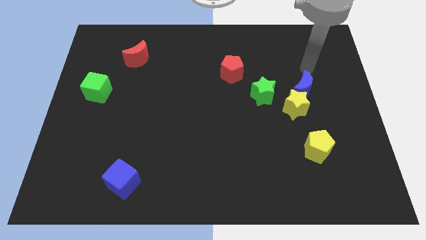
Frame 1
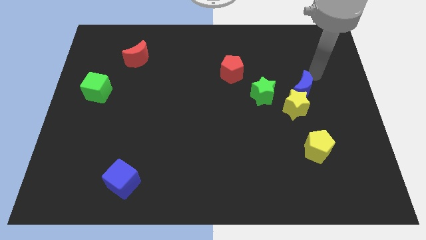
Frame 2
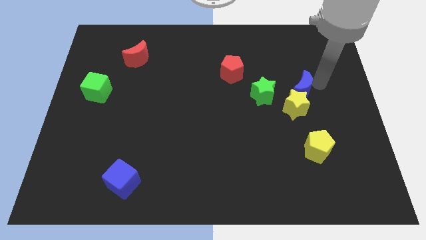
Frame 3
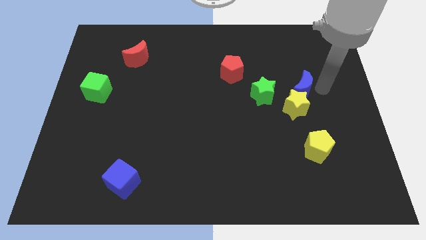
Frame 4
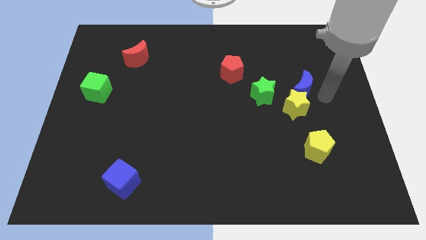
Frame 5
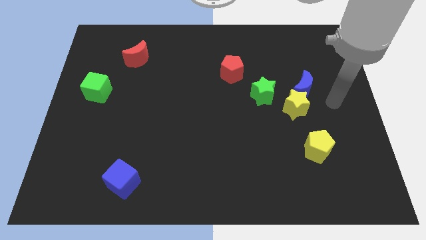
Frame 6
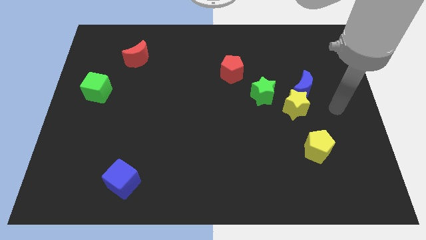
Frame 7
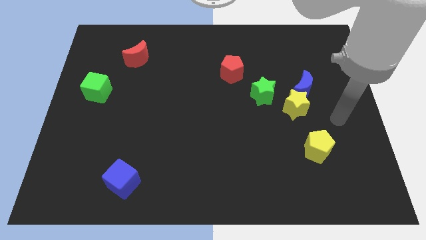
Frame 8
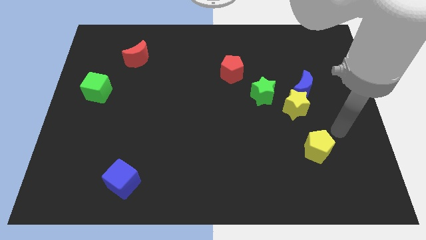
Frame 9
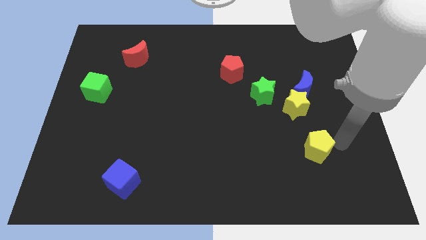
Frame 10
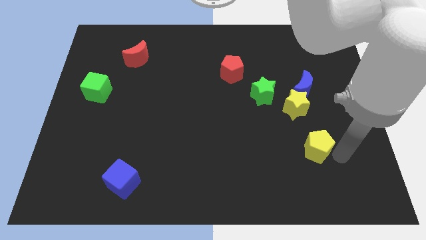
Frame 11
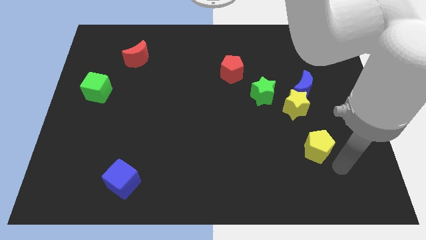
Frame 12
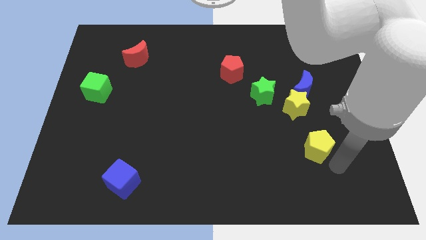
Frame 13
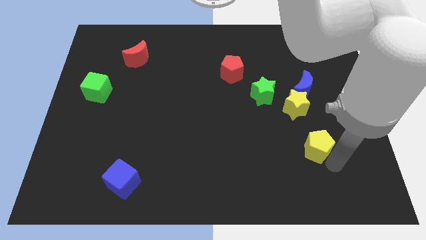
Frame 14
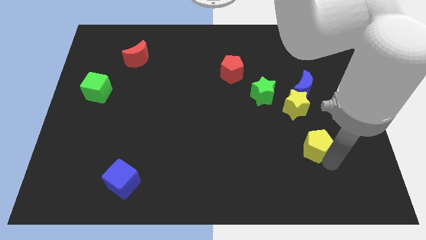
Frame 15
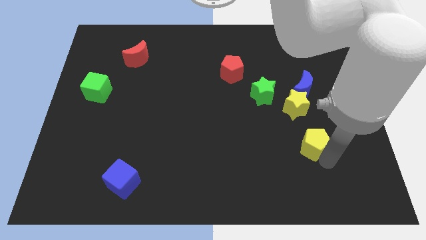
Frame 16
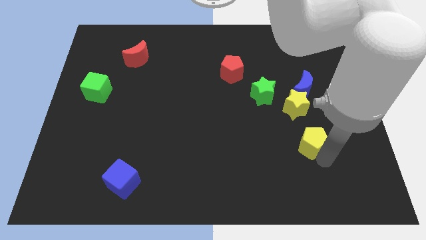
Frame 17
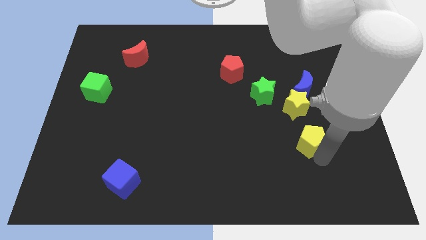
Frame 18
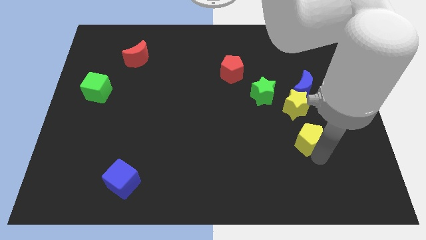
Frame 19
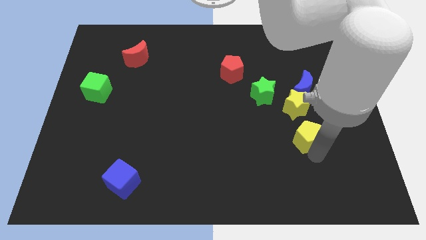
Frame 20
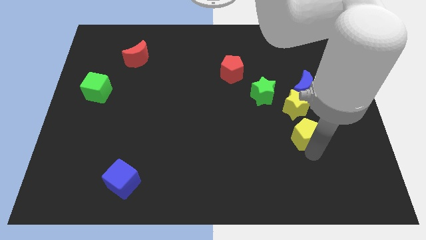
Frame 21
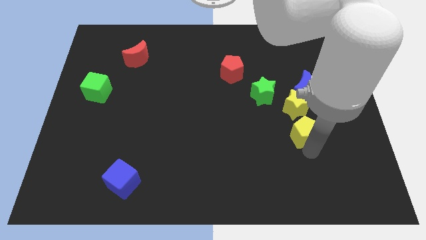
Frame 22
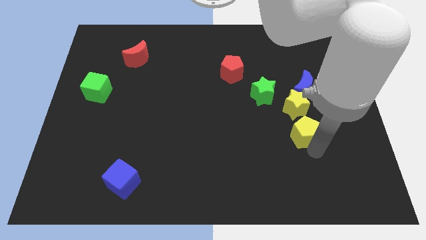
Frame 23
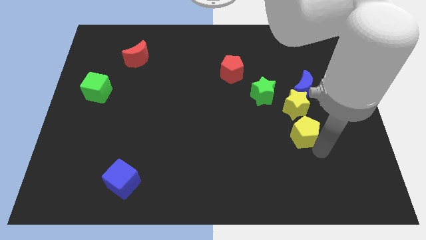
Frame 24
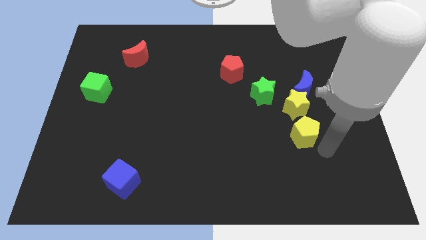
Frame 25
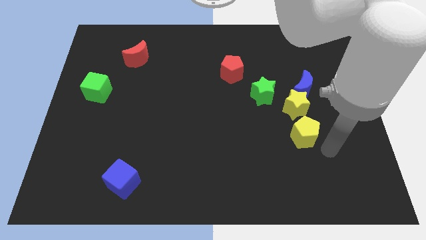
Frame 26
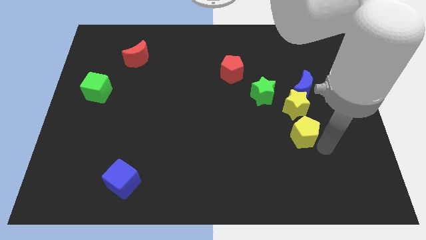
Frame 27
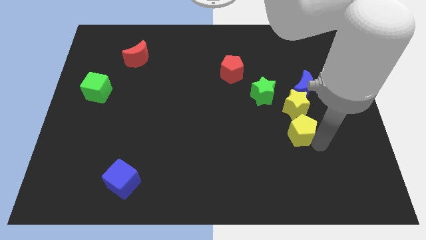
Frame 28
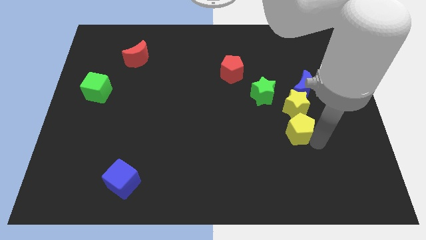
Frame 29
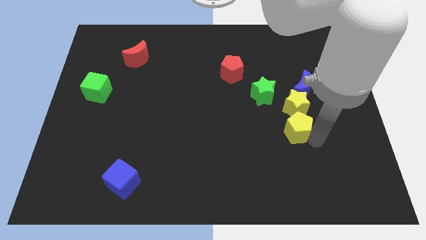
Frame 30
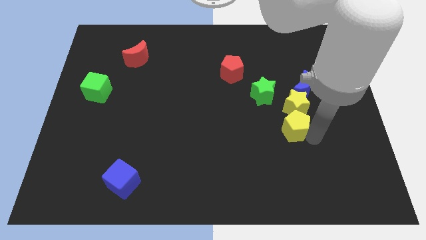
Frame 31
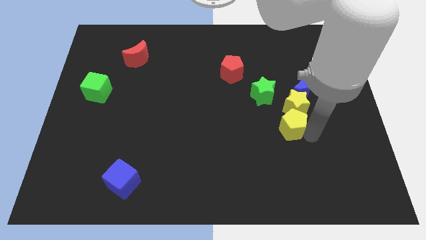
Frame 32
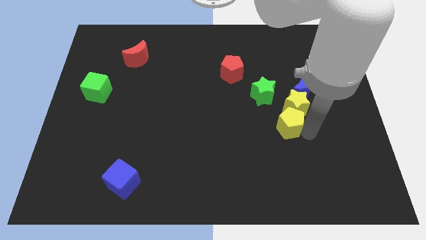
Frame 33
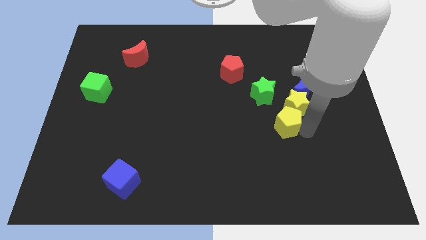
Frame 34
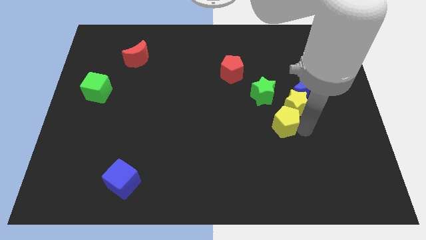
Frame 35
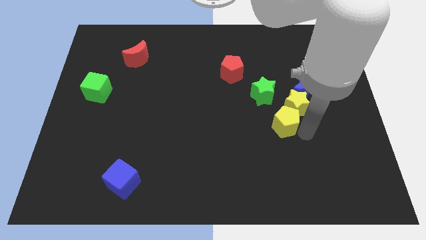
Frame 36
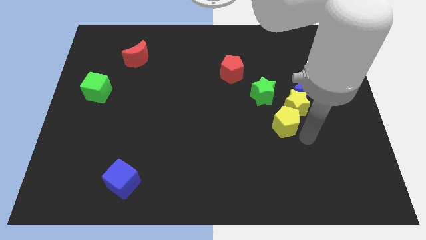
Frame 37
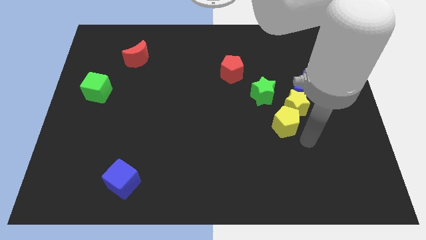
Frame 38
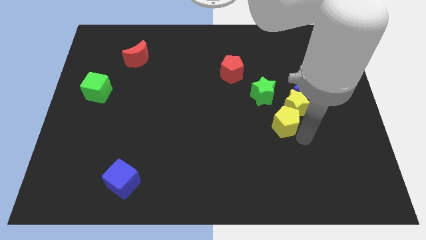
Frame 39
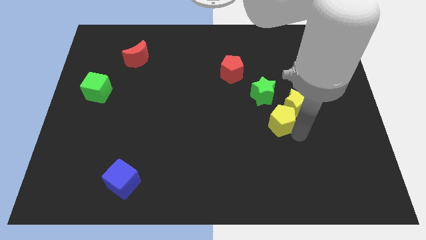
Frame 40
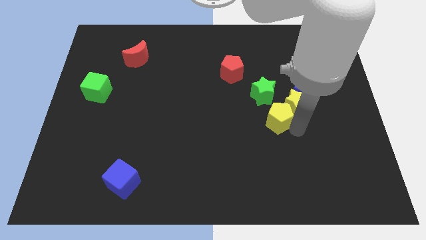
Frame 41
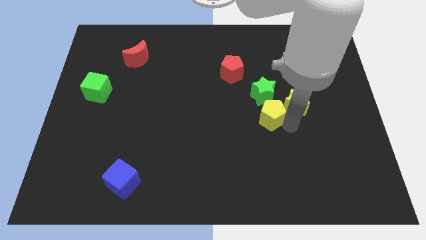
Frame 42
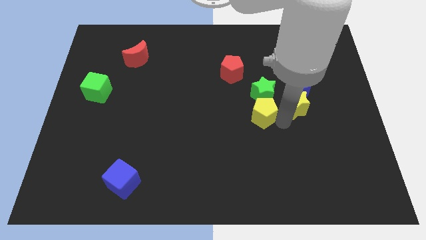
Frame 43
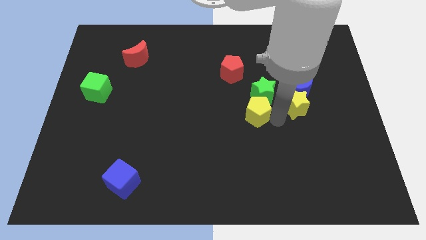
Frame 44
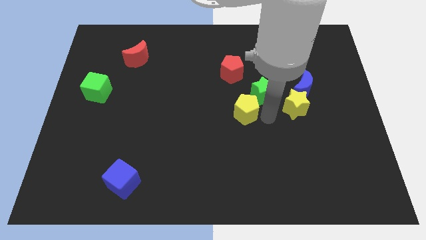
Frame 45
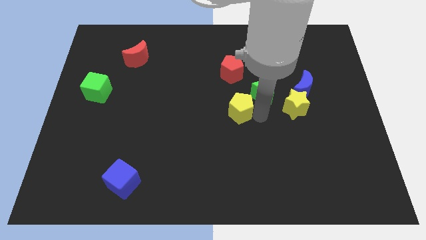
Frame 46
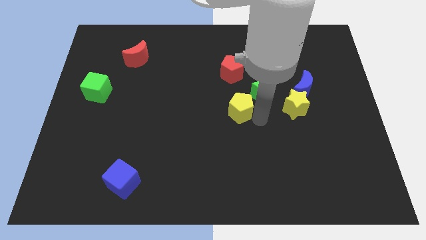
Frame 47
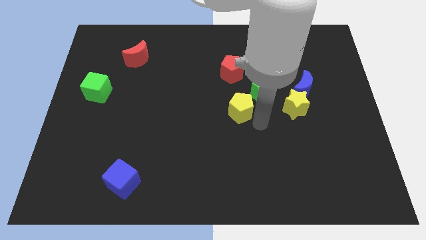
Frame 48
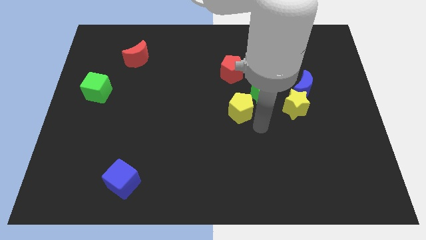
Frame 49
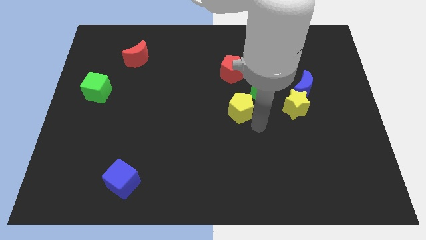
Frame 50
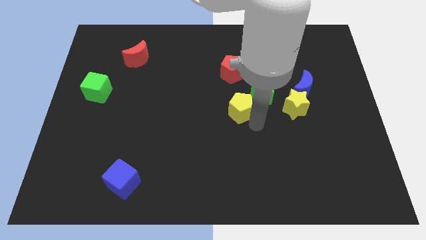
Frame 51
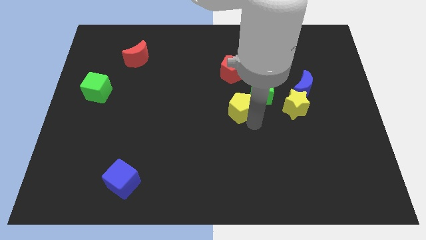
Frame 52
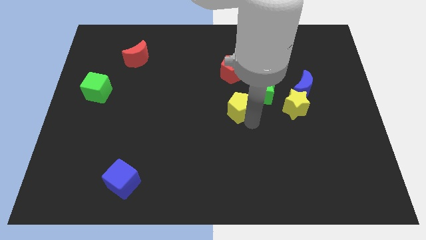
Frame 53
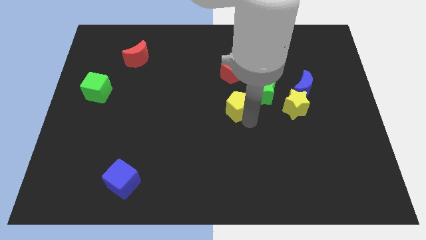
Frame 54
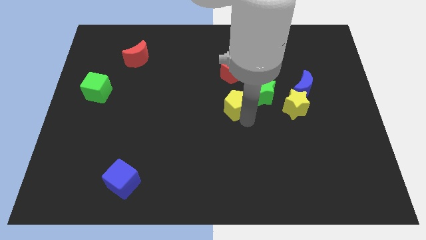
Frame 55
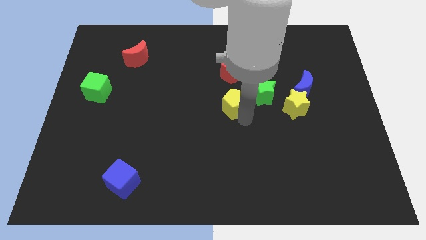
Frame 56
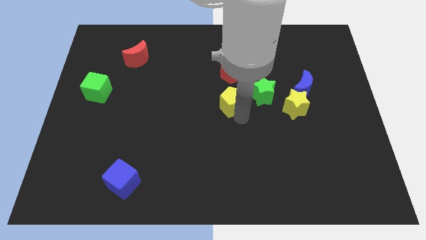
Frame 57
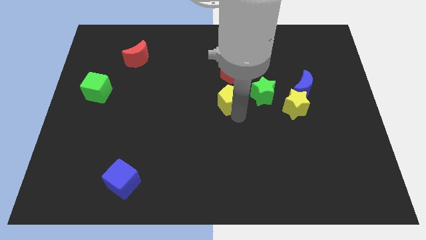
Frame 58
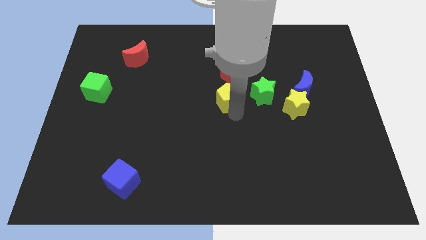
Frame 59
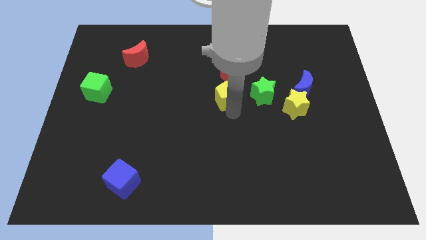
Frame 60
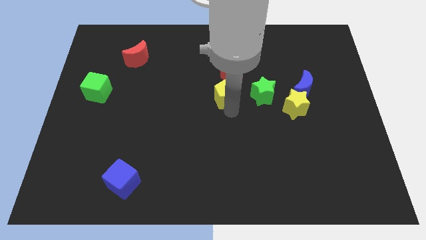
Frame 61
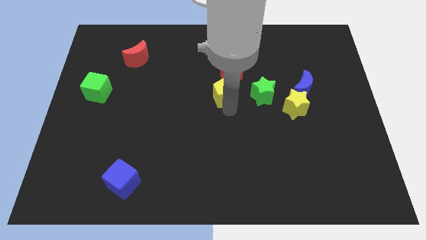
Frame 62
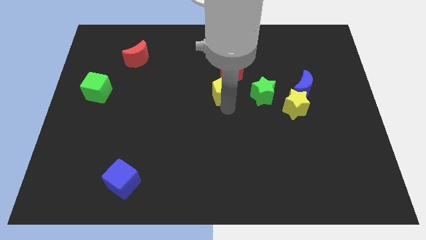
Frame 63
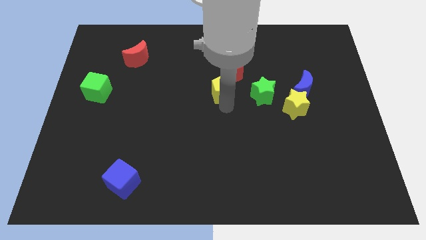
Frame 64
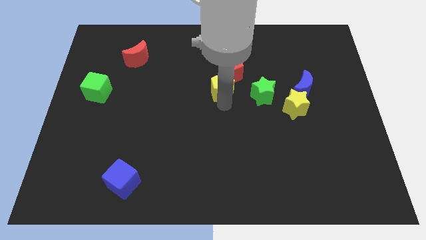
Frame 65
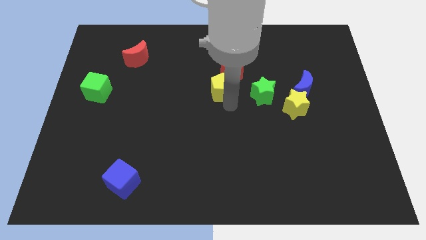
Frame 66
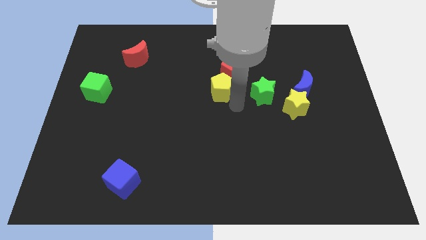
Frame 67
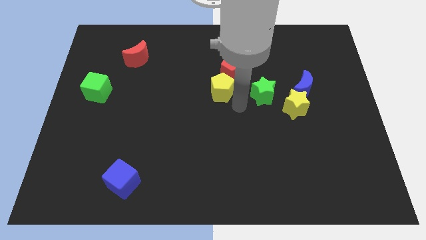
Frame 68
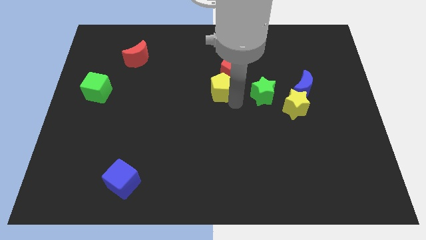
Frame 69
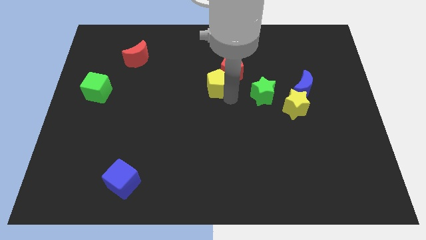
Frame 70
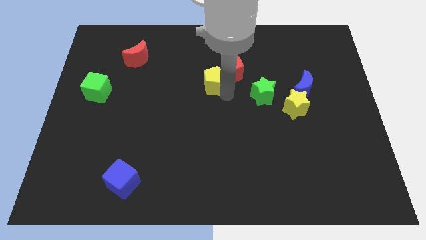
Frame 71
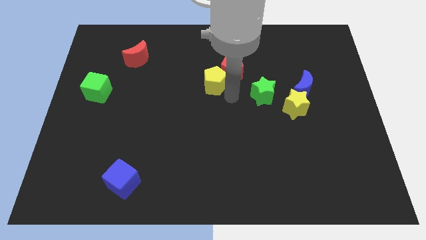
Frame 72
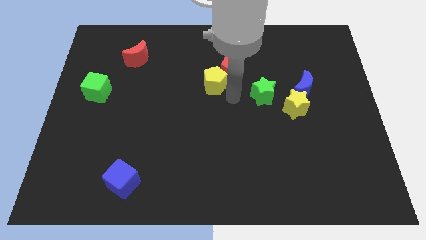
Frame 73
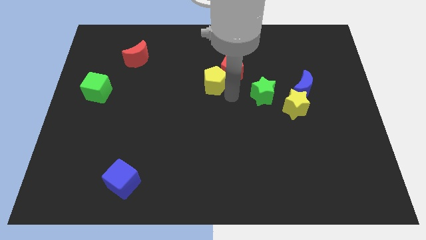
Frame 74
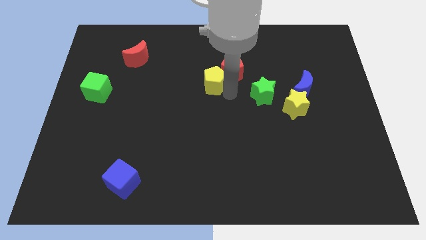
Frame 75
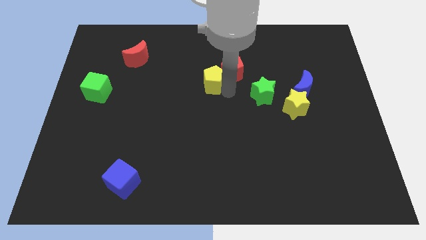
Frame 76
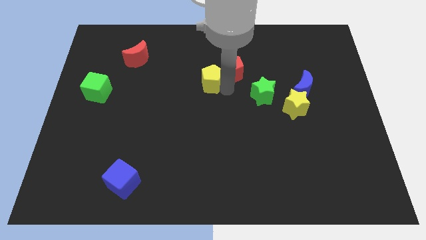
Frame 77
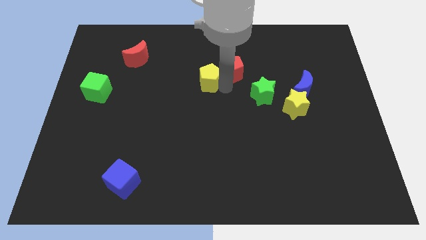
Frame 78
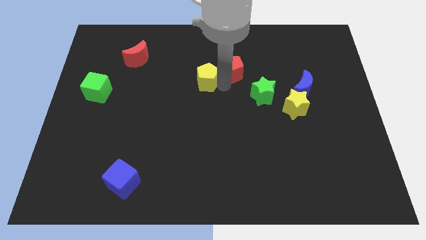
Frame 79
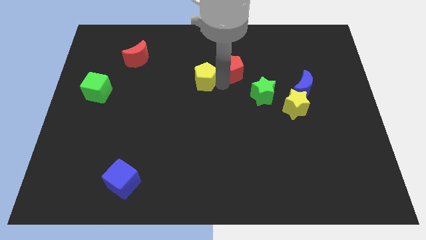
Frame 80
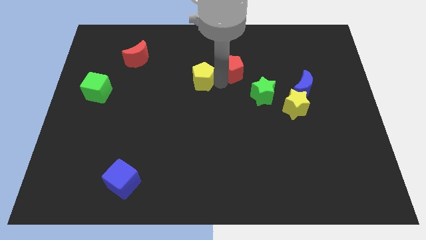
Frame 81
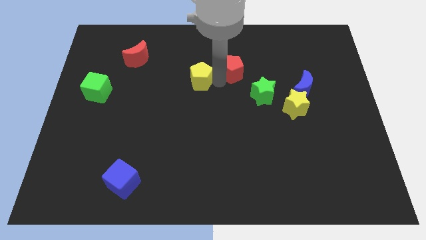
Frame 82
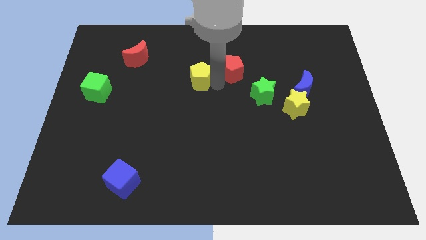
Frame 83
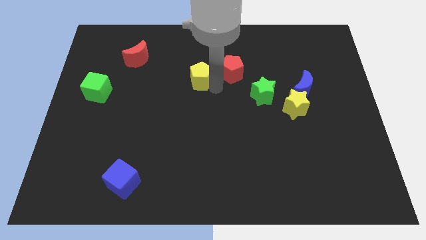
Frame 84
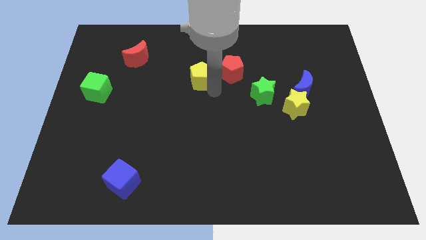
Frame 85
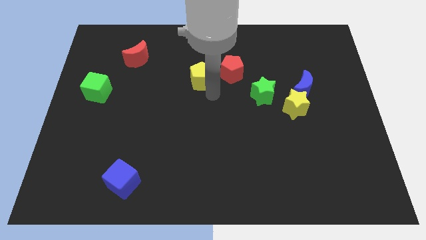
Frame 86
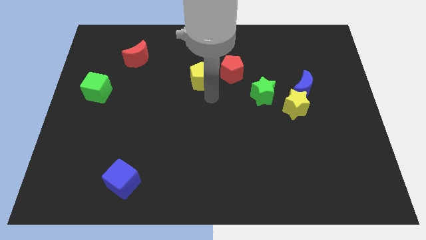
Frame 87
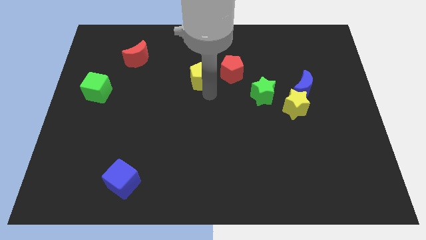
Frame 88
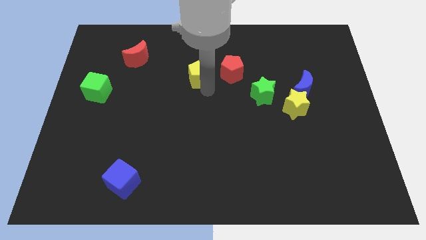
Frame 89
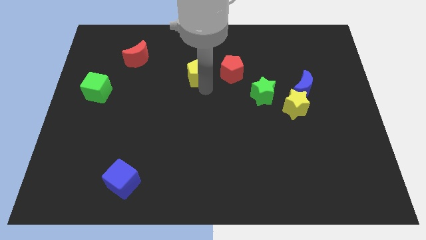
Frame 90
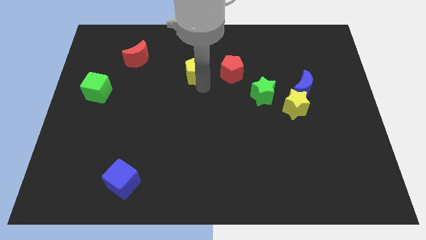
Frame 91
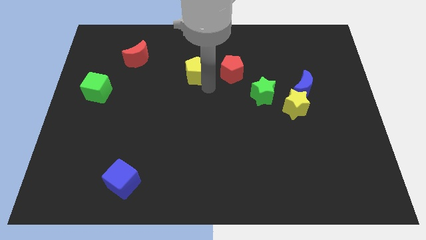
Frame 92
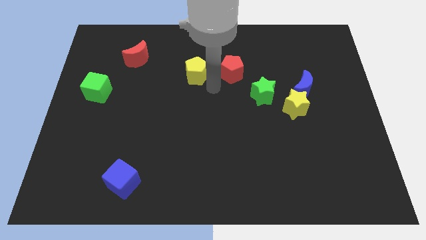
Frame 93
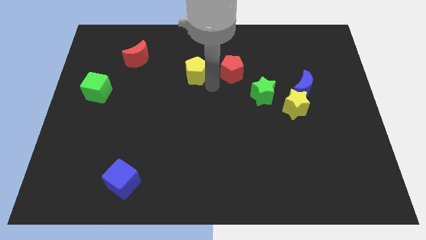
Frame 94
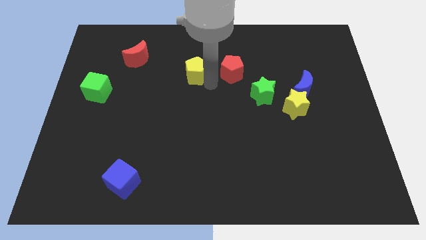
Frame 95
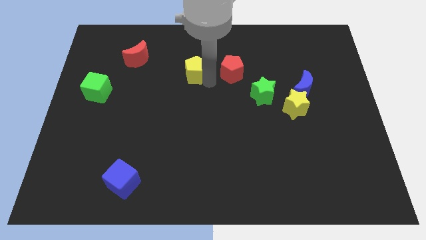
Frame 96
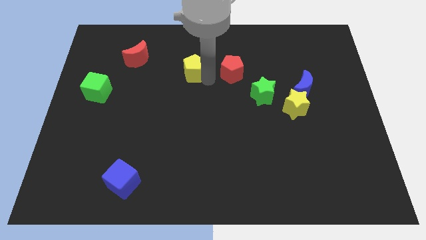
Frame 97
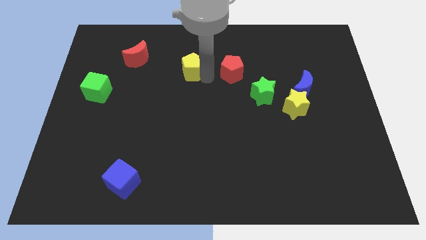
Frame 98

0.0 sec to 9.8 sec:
slide the yellow pentagon just right of the red moon
